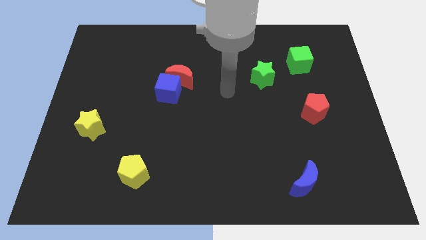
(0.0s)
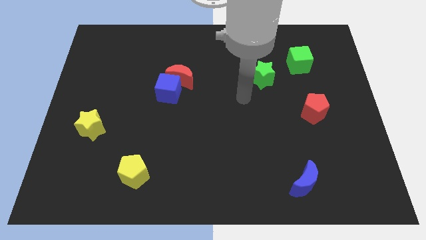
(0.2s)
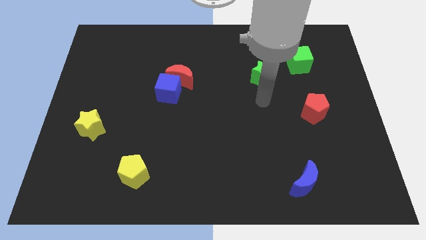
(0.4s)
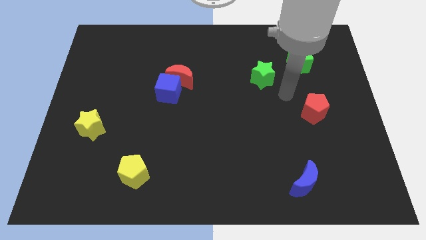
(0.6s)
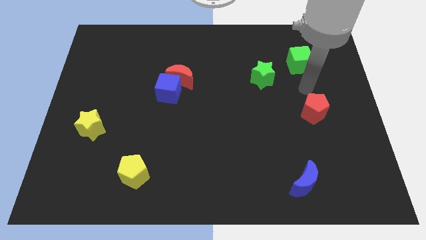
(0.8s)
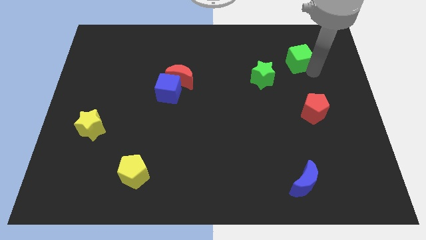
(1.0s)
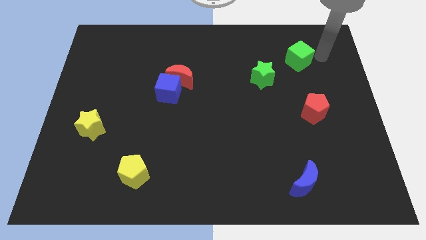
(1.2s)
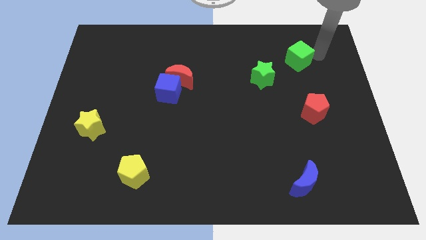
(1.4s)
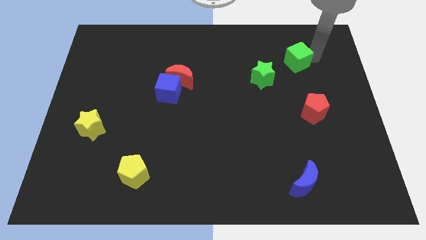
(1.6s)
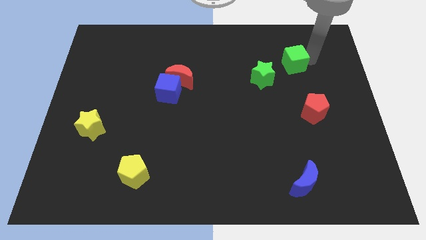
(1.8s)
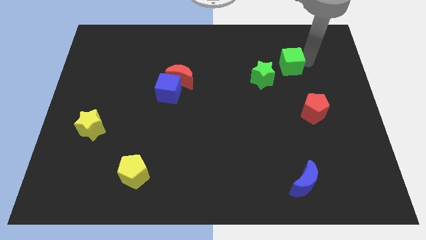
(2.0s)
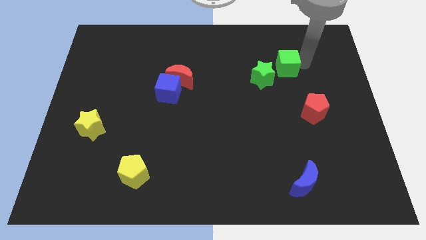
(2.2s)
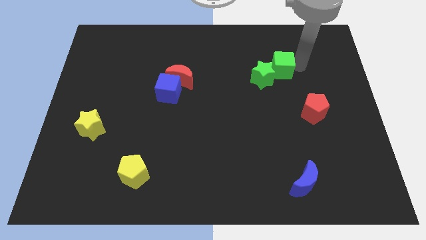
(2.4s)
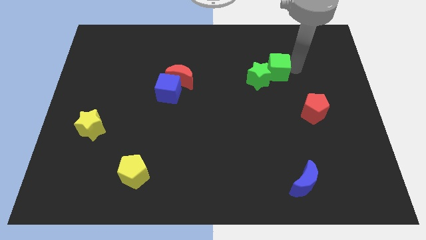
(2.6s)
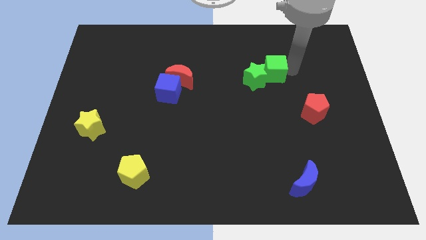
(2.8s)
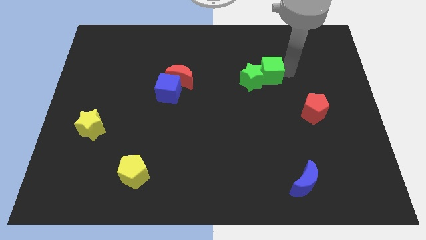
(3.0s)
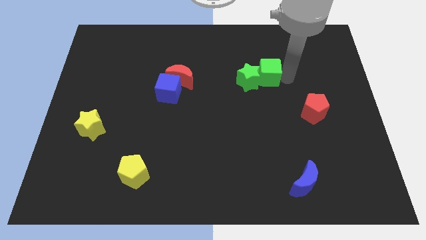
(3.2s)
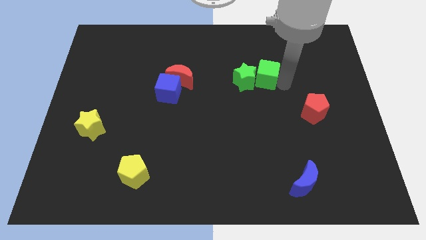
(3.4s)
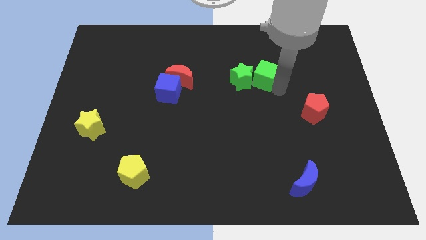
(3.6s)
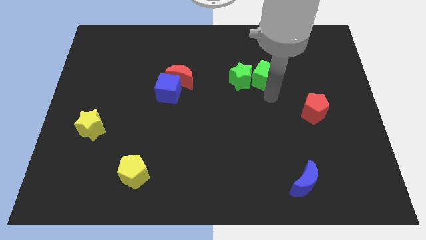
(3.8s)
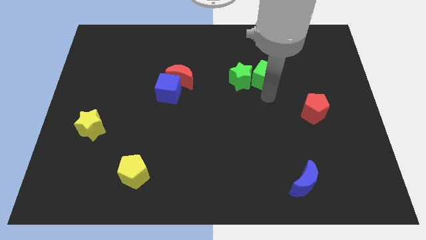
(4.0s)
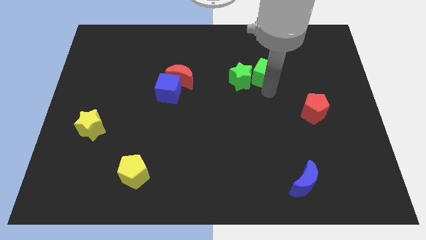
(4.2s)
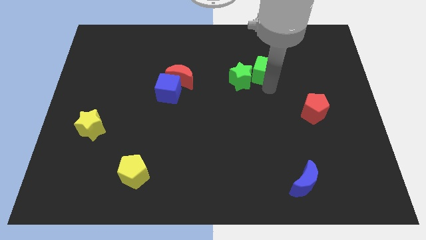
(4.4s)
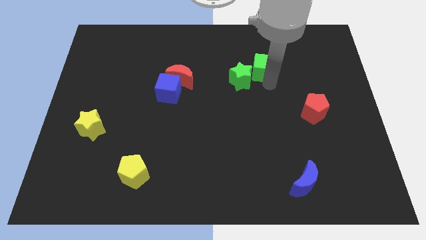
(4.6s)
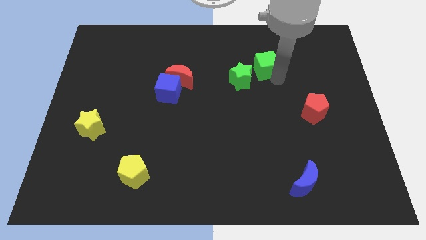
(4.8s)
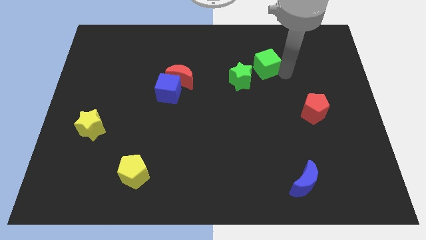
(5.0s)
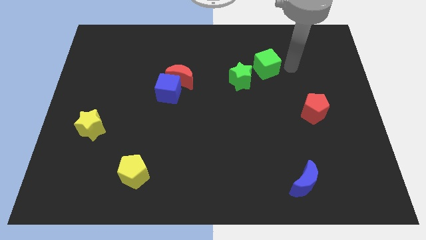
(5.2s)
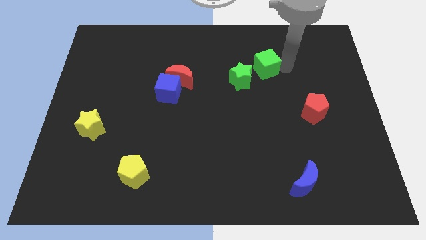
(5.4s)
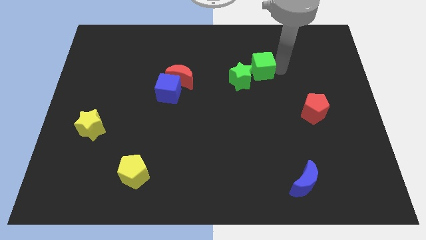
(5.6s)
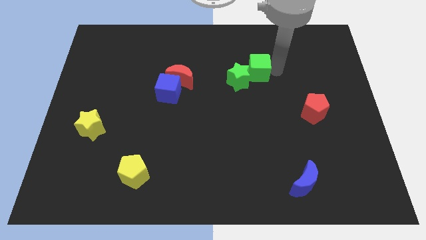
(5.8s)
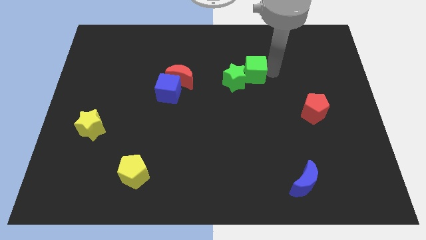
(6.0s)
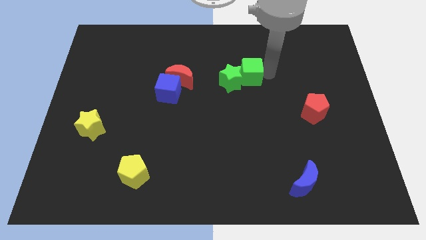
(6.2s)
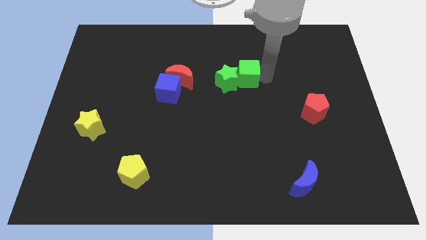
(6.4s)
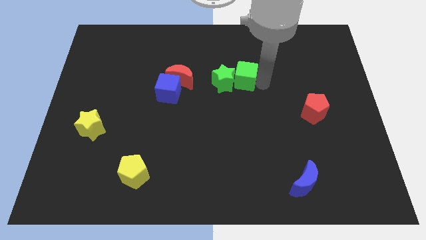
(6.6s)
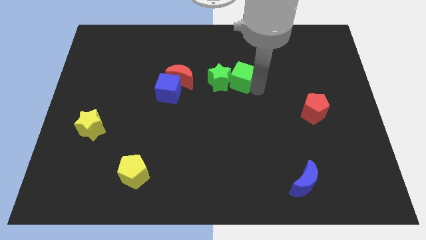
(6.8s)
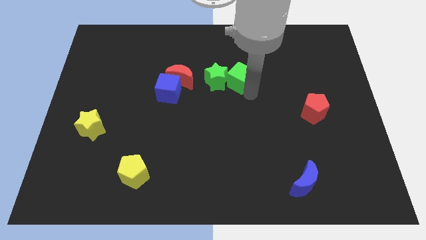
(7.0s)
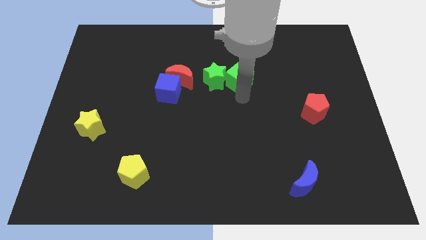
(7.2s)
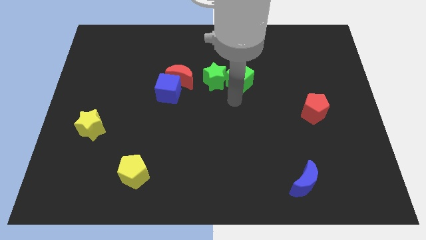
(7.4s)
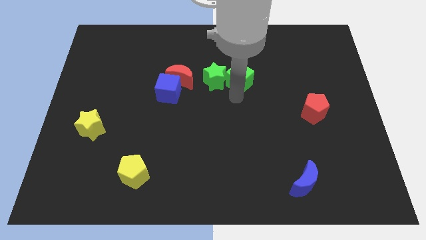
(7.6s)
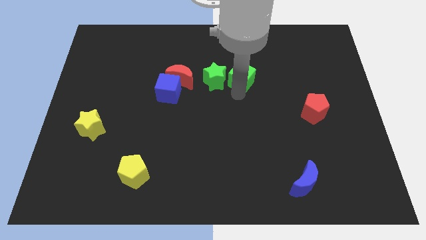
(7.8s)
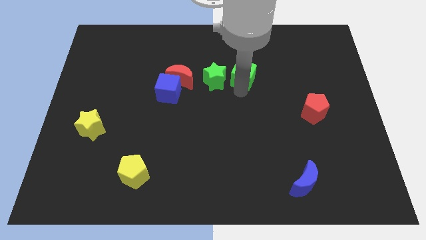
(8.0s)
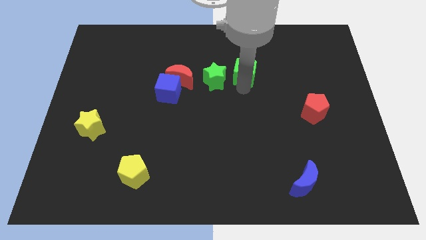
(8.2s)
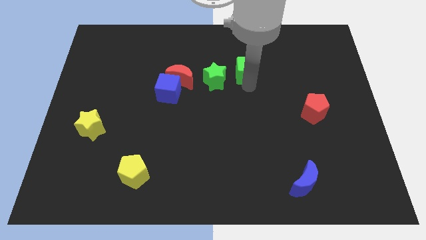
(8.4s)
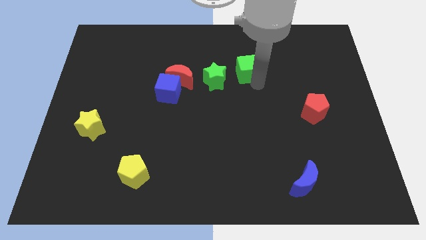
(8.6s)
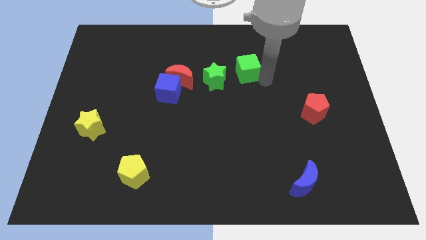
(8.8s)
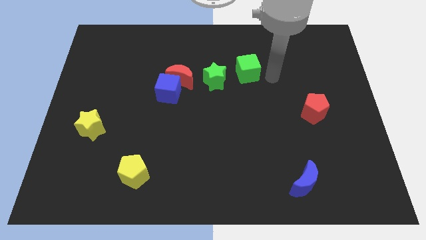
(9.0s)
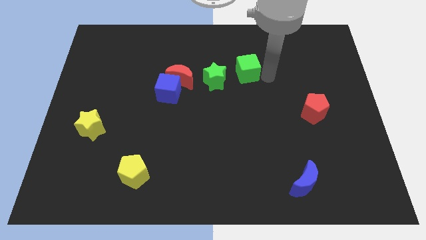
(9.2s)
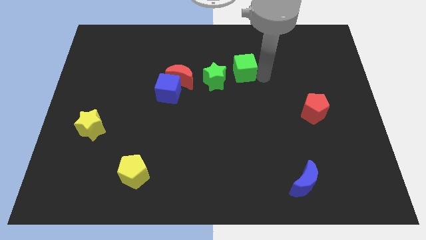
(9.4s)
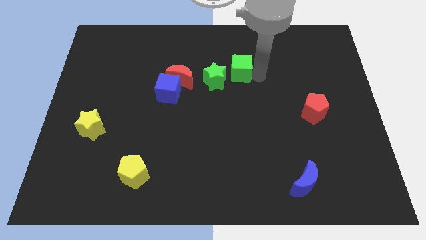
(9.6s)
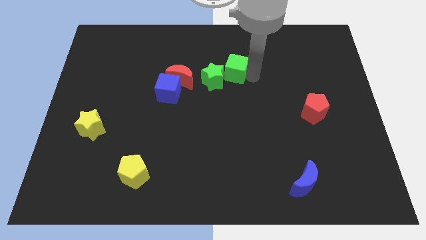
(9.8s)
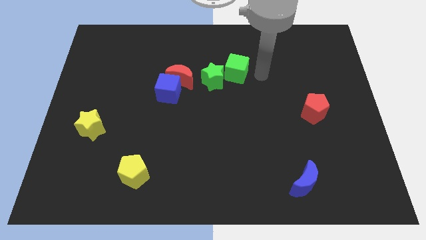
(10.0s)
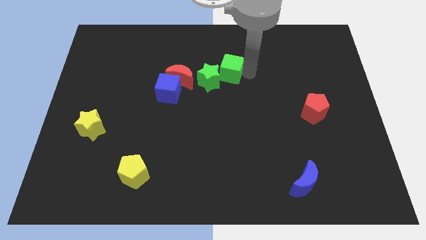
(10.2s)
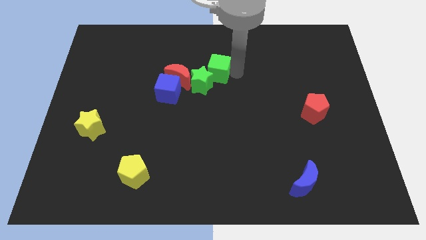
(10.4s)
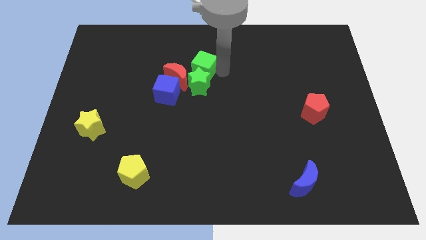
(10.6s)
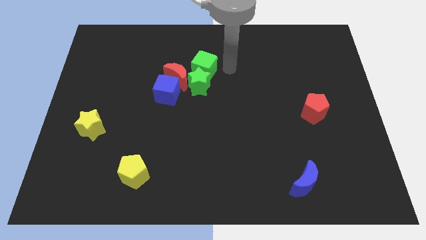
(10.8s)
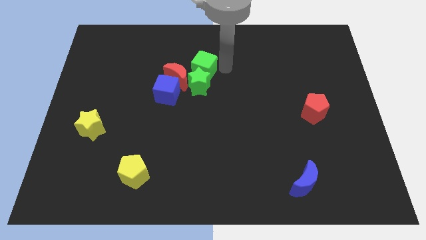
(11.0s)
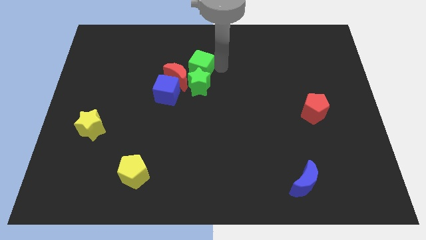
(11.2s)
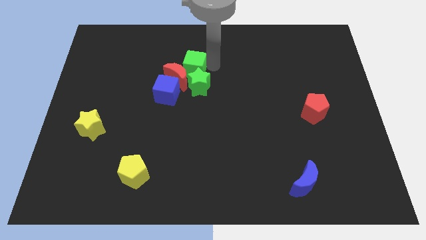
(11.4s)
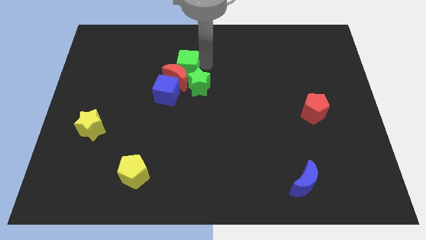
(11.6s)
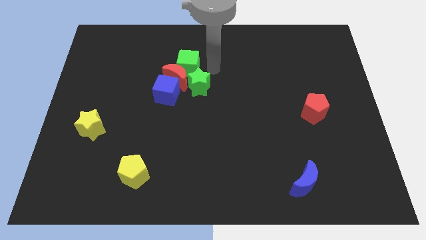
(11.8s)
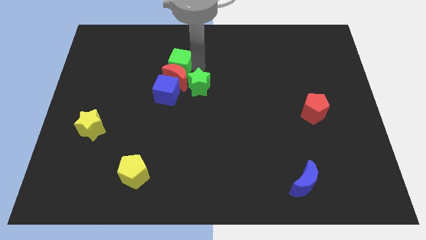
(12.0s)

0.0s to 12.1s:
move the green cube diagonally up and to the left of the red moon
